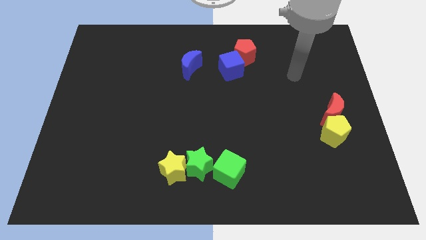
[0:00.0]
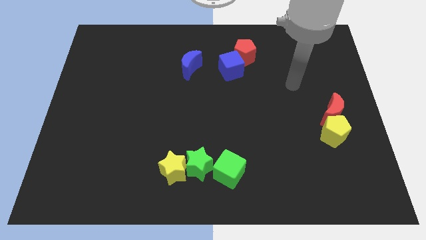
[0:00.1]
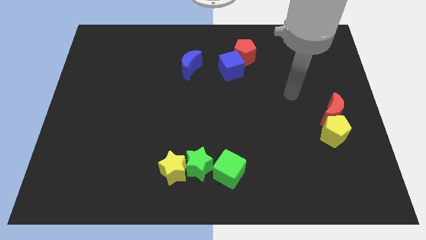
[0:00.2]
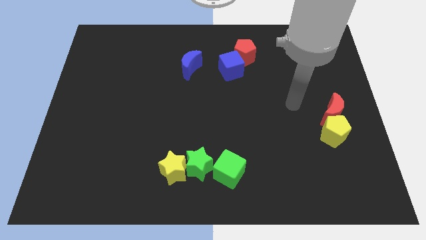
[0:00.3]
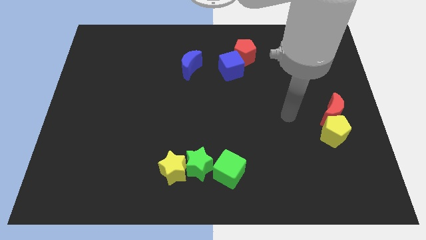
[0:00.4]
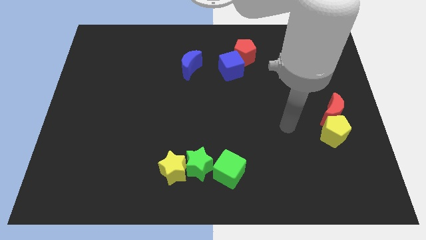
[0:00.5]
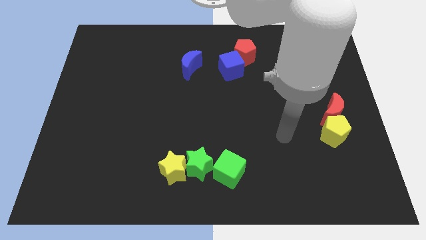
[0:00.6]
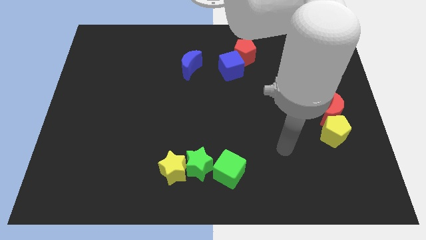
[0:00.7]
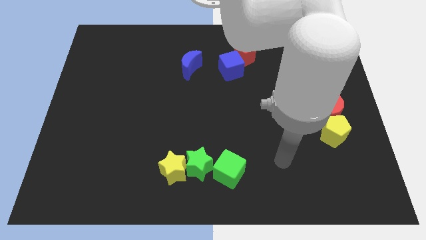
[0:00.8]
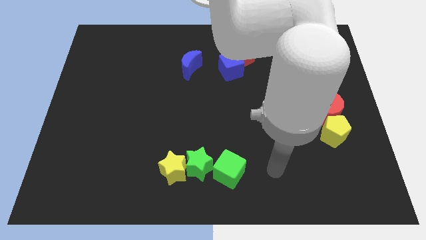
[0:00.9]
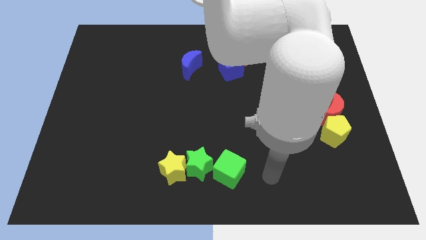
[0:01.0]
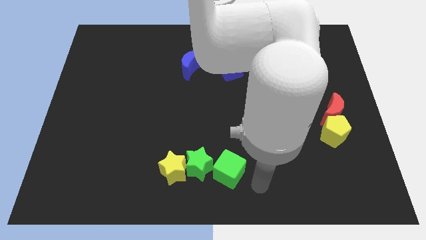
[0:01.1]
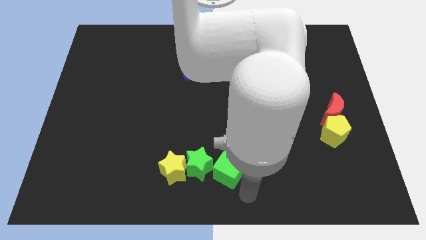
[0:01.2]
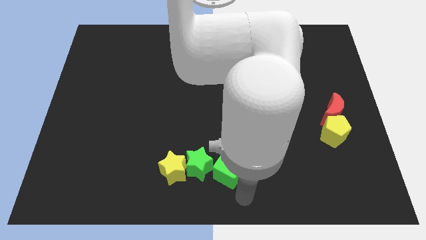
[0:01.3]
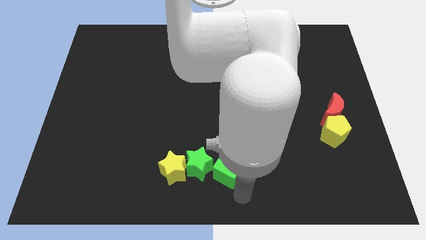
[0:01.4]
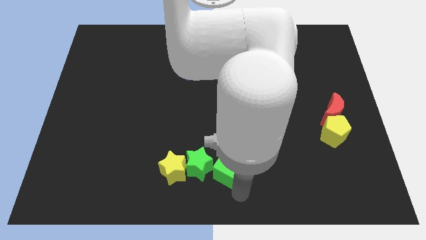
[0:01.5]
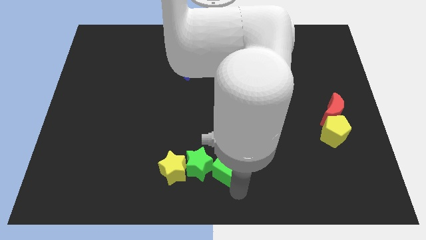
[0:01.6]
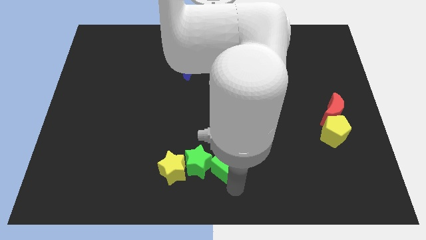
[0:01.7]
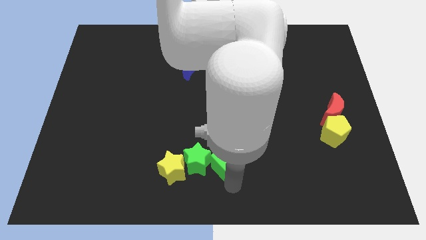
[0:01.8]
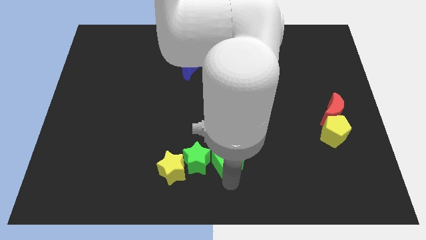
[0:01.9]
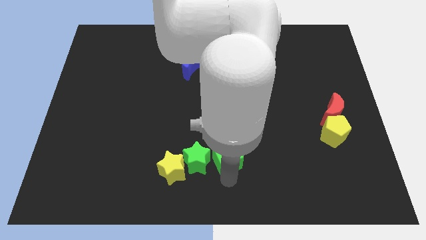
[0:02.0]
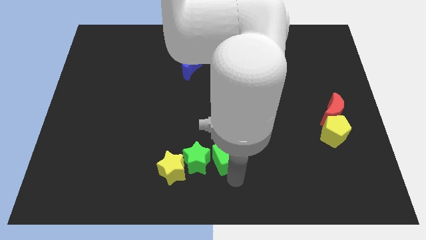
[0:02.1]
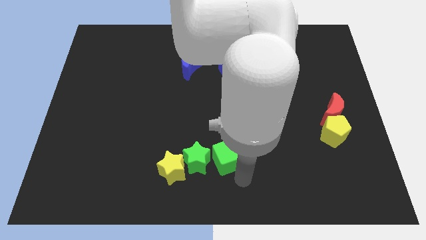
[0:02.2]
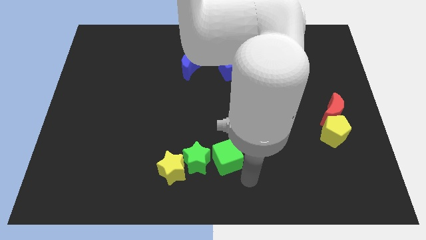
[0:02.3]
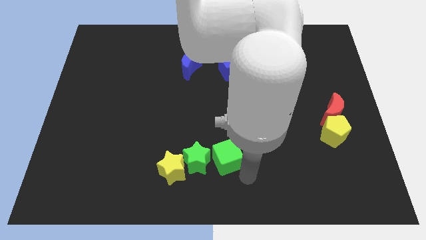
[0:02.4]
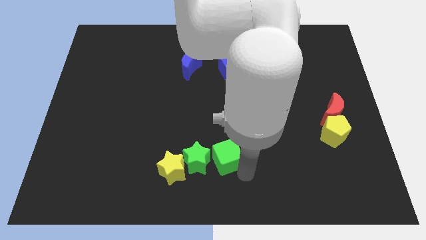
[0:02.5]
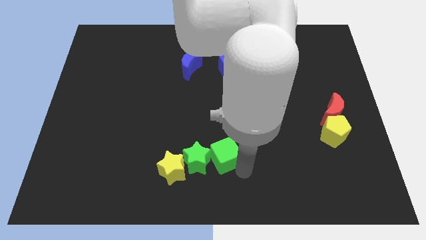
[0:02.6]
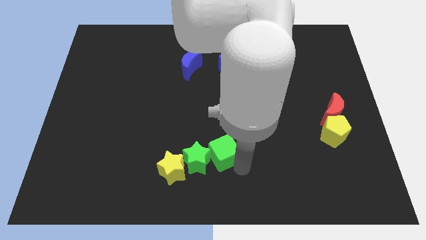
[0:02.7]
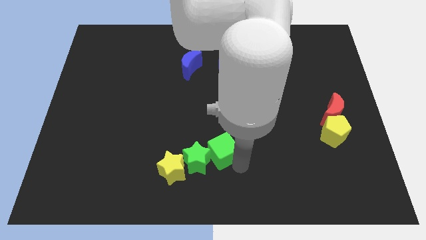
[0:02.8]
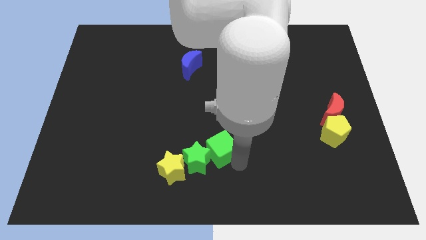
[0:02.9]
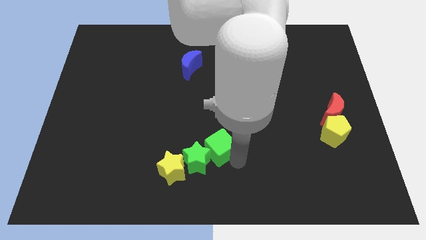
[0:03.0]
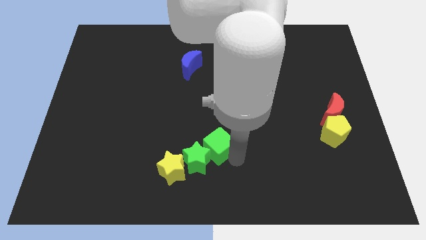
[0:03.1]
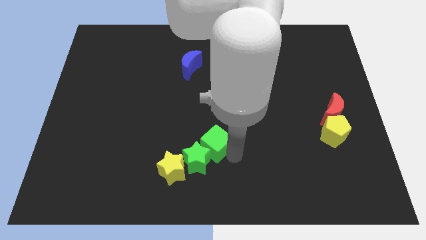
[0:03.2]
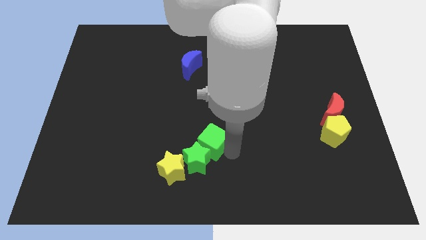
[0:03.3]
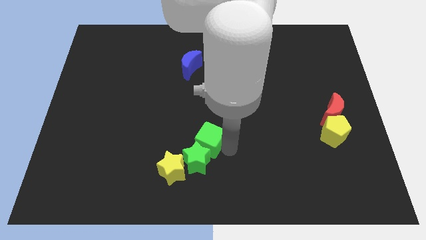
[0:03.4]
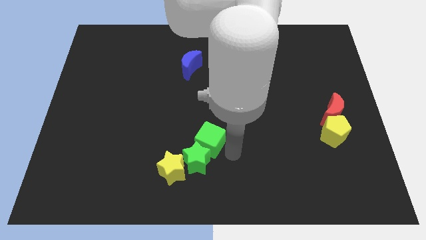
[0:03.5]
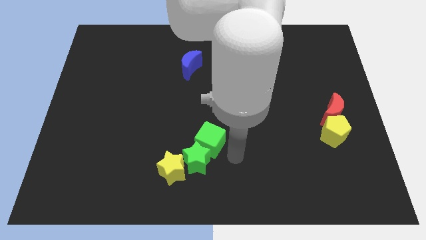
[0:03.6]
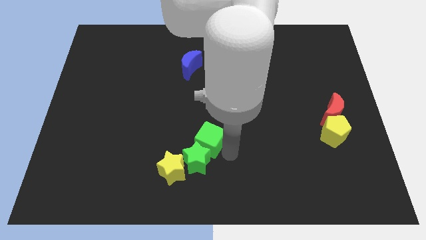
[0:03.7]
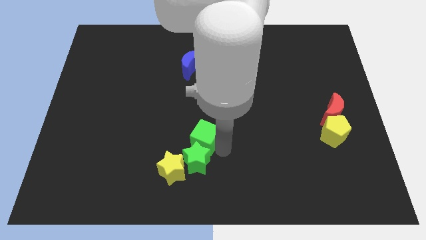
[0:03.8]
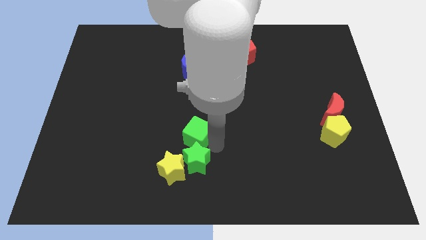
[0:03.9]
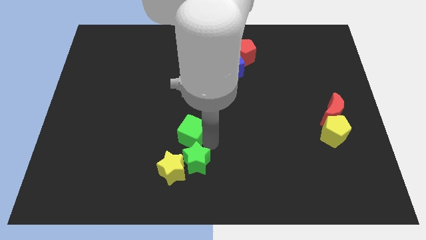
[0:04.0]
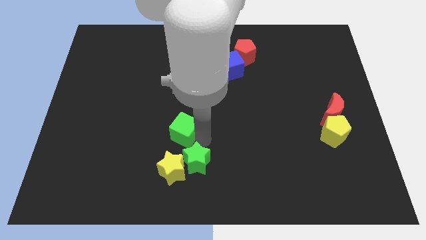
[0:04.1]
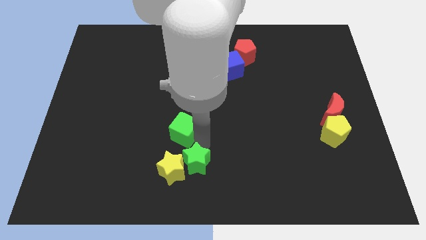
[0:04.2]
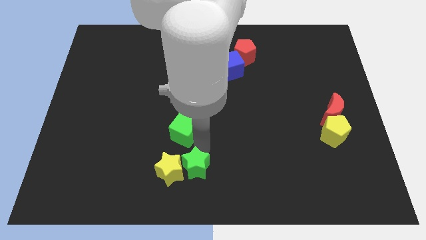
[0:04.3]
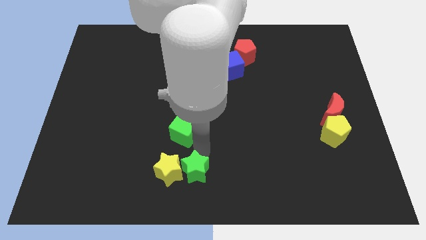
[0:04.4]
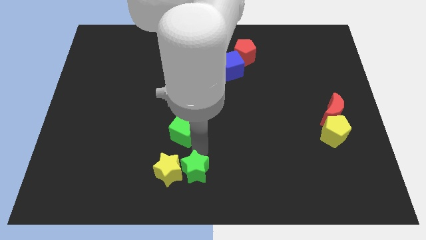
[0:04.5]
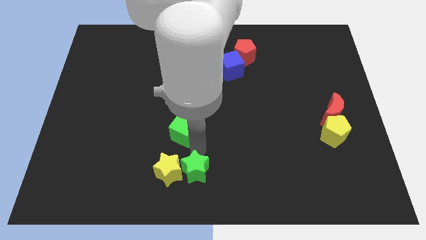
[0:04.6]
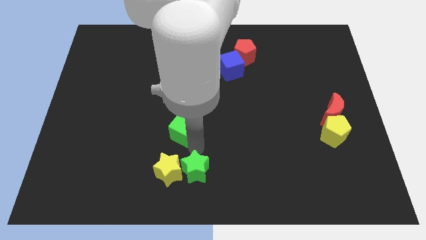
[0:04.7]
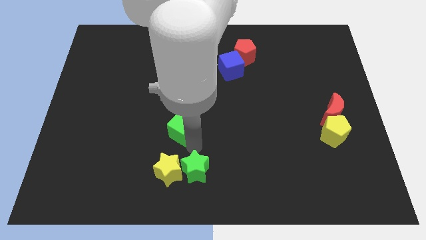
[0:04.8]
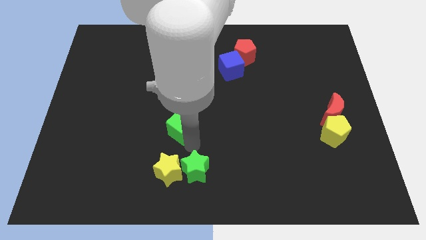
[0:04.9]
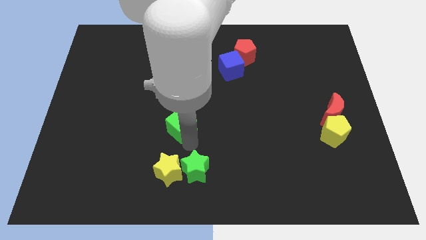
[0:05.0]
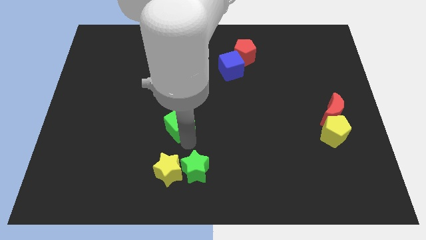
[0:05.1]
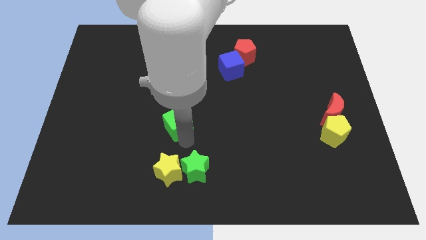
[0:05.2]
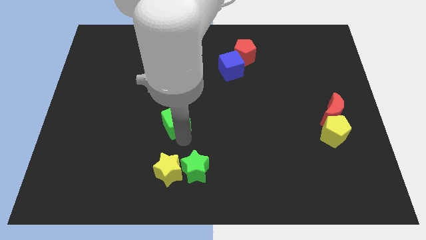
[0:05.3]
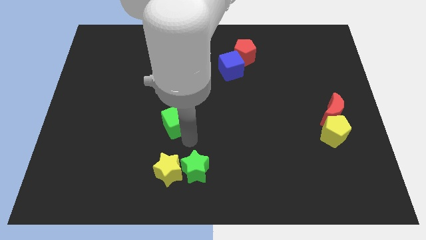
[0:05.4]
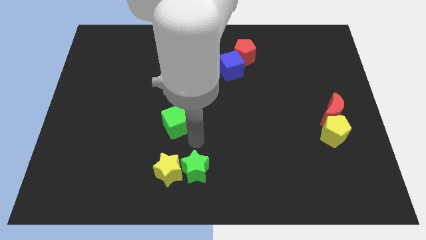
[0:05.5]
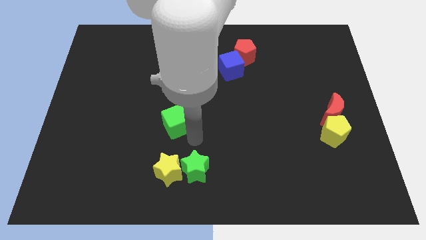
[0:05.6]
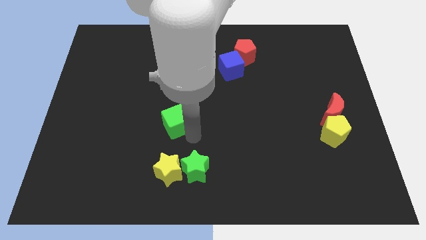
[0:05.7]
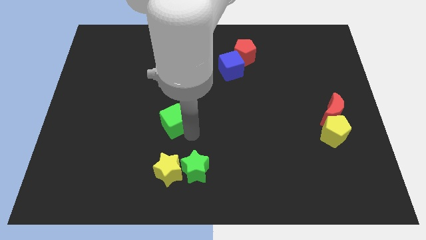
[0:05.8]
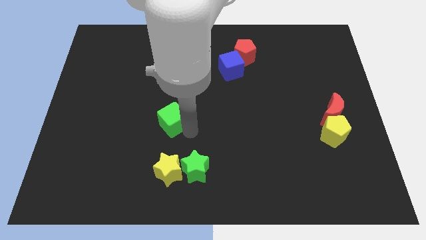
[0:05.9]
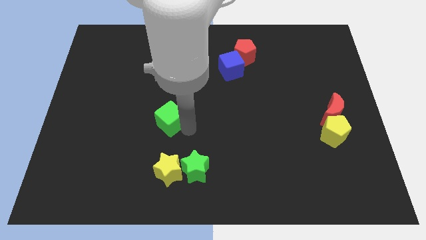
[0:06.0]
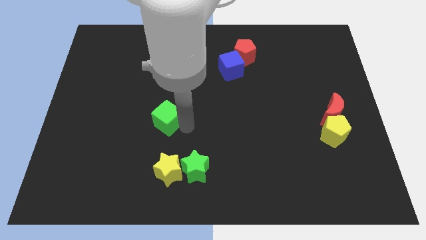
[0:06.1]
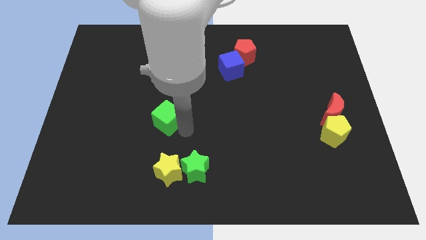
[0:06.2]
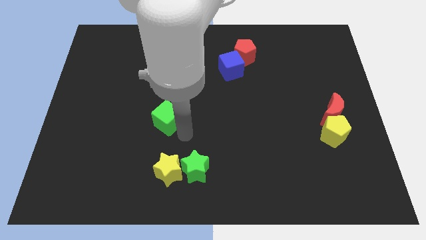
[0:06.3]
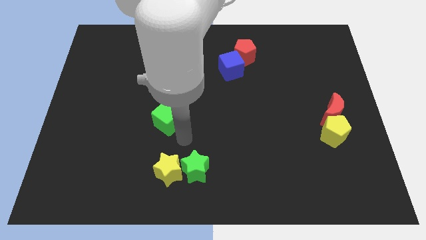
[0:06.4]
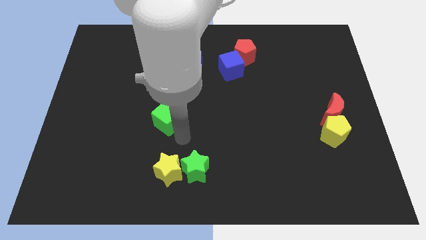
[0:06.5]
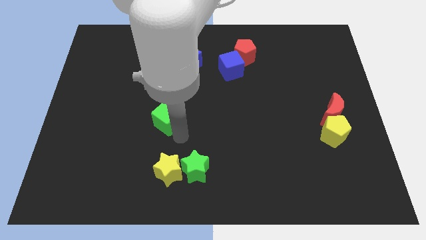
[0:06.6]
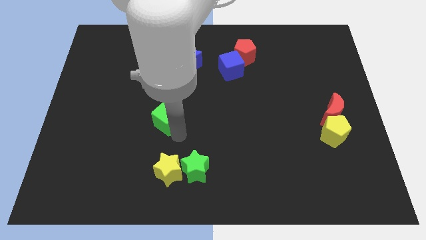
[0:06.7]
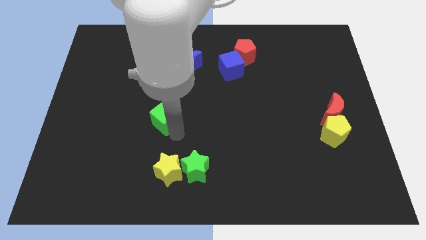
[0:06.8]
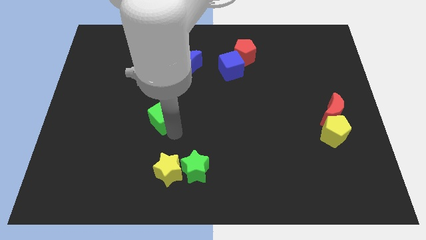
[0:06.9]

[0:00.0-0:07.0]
push the green cube upwards and then to the left
